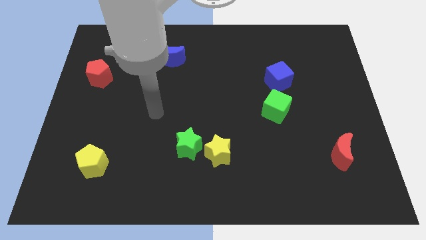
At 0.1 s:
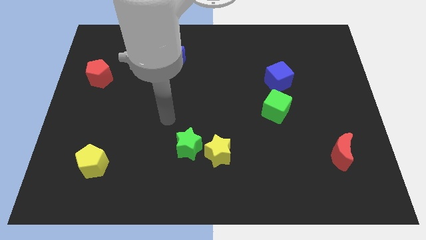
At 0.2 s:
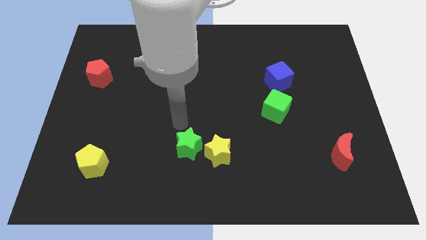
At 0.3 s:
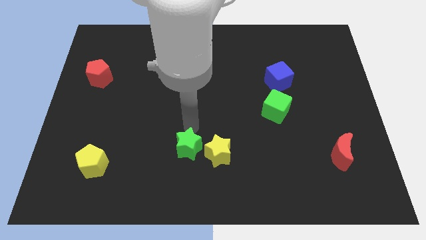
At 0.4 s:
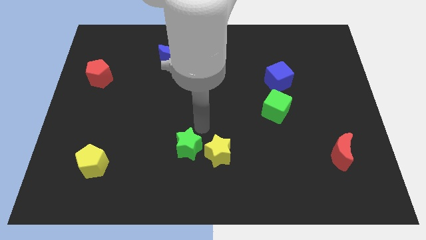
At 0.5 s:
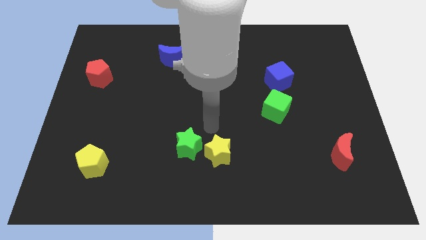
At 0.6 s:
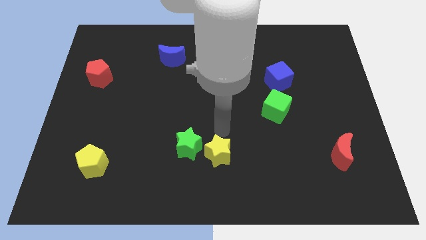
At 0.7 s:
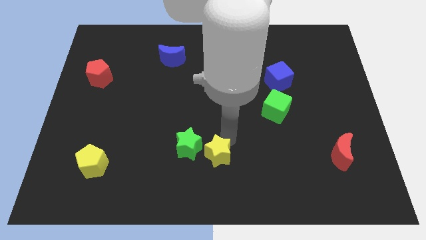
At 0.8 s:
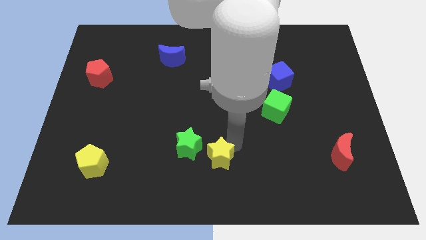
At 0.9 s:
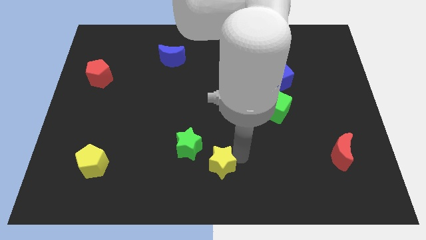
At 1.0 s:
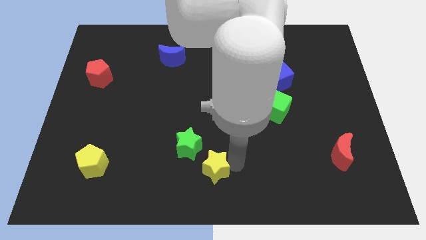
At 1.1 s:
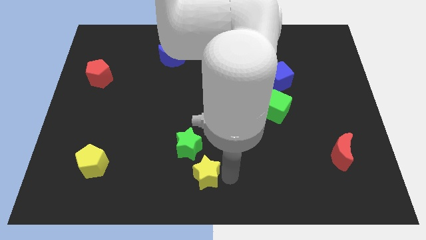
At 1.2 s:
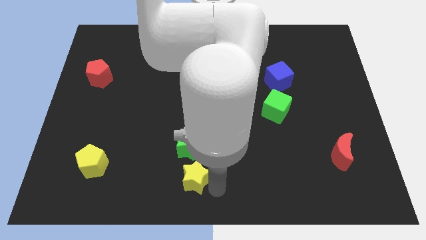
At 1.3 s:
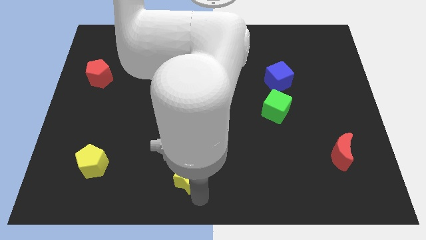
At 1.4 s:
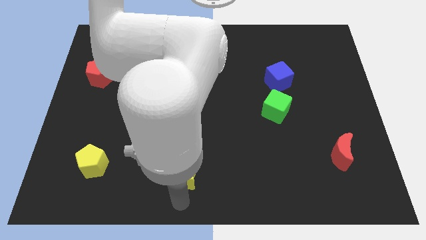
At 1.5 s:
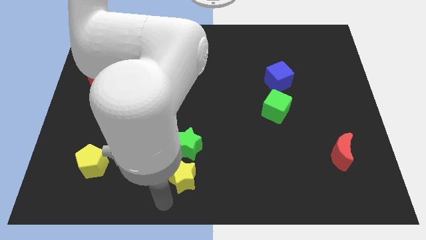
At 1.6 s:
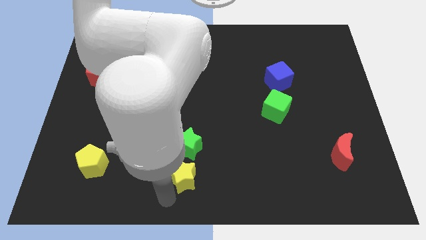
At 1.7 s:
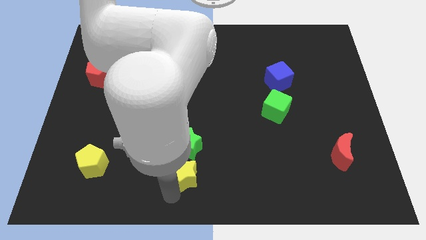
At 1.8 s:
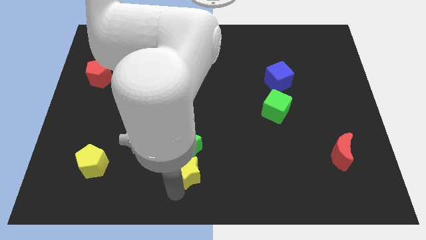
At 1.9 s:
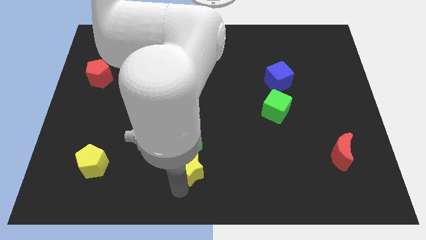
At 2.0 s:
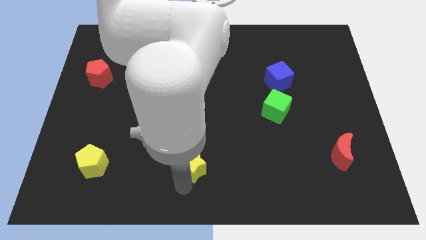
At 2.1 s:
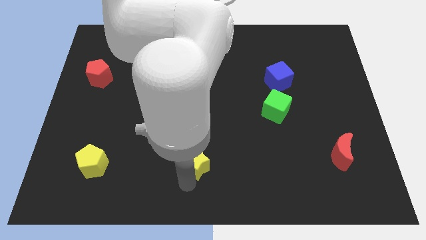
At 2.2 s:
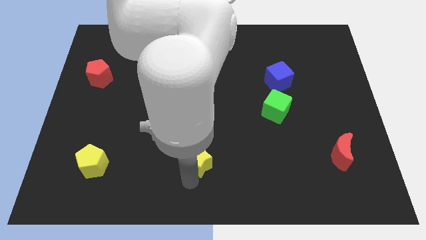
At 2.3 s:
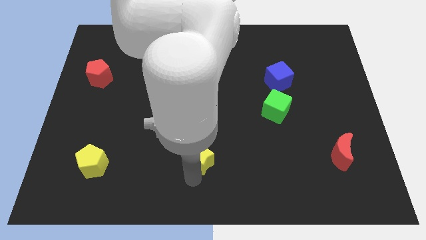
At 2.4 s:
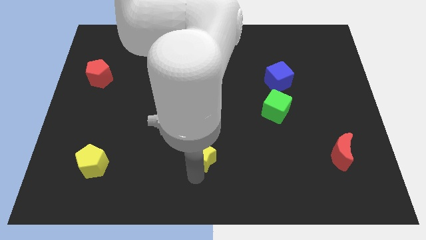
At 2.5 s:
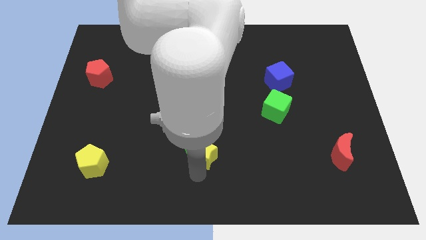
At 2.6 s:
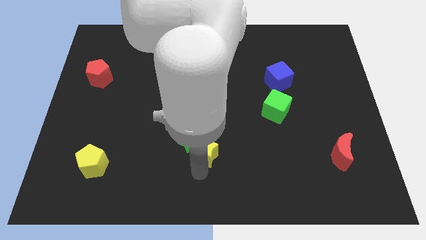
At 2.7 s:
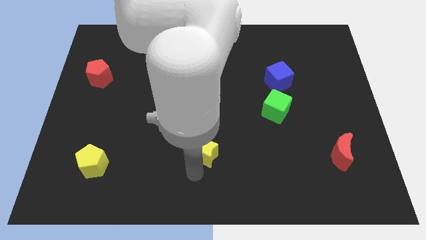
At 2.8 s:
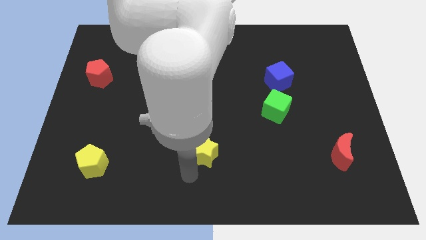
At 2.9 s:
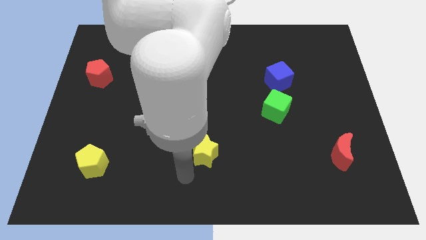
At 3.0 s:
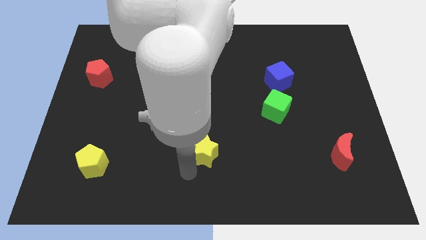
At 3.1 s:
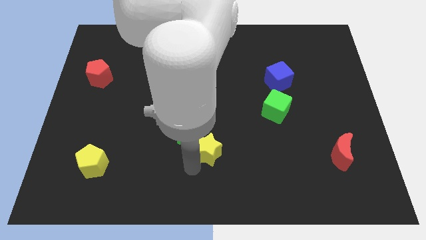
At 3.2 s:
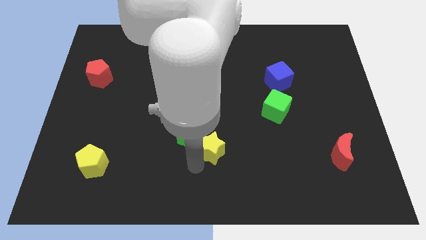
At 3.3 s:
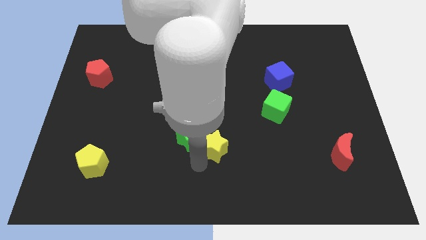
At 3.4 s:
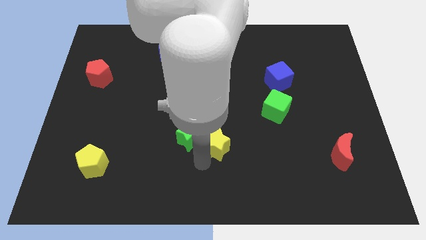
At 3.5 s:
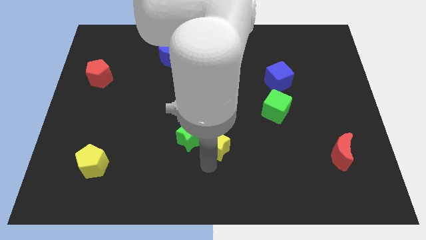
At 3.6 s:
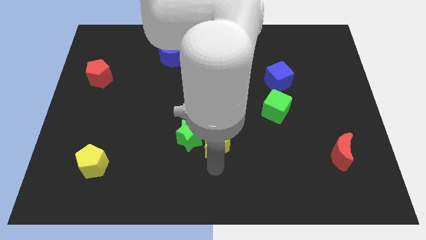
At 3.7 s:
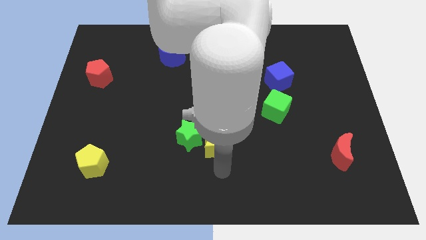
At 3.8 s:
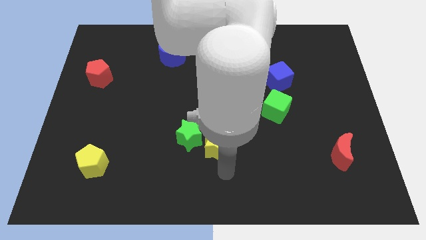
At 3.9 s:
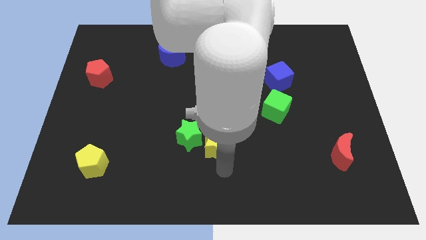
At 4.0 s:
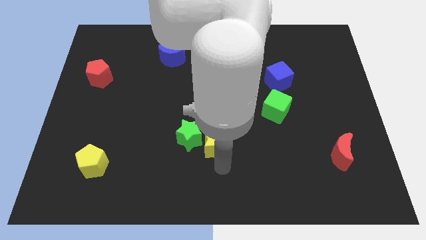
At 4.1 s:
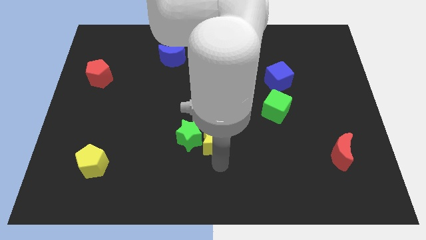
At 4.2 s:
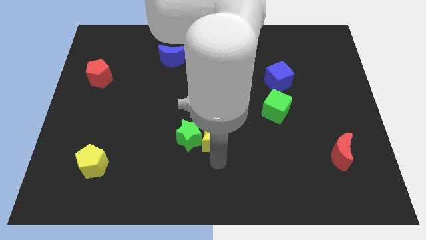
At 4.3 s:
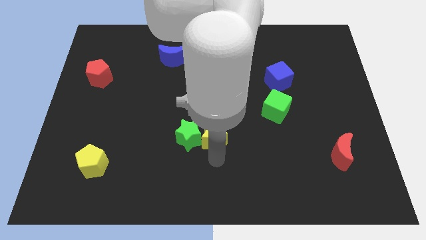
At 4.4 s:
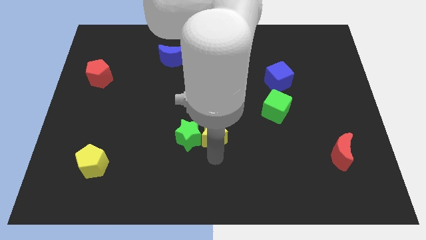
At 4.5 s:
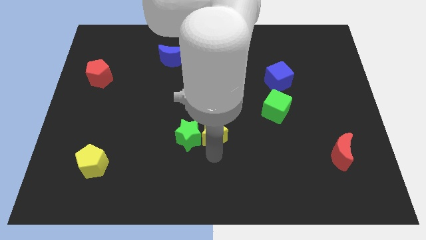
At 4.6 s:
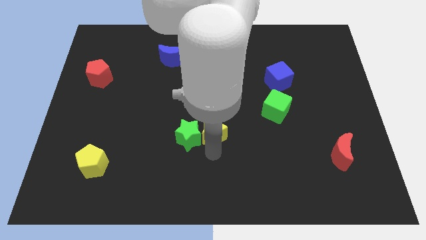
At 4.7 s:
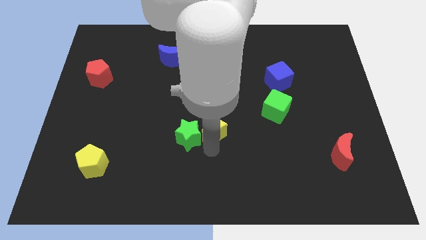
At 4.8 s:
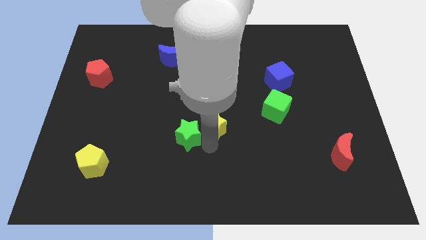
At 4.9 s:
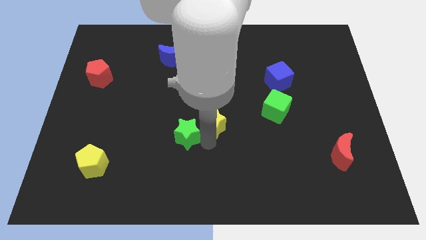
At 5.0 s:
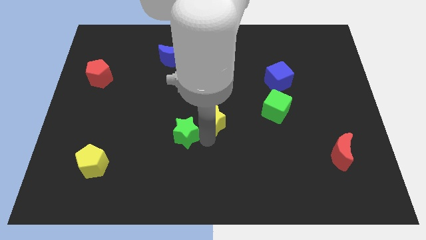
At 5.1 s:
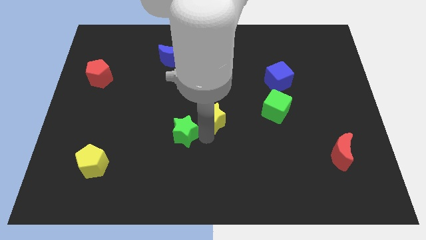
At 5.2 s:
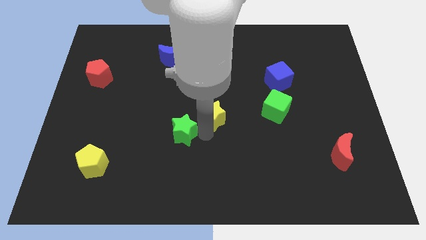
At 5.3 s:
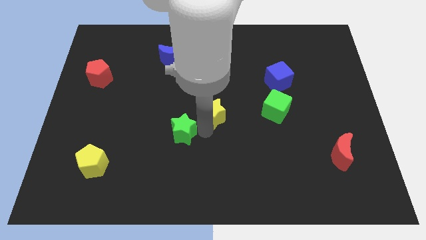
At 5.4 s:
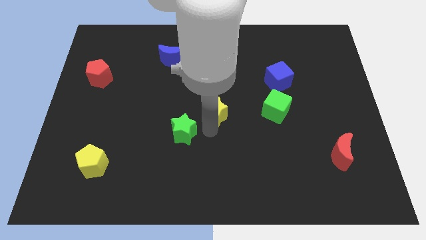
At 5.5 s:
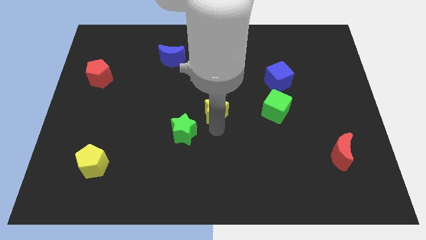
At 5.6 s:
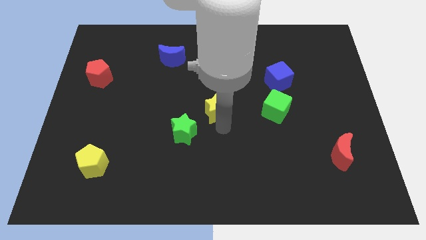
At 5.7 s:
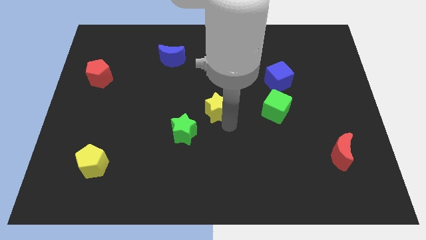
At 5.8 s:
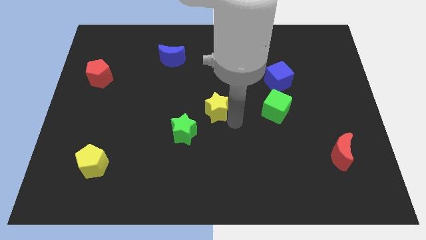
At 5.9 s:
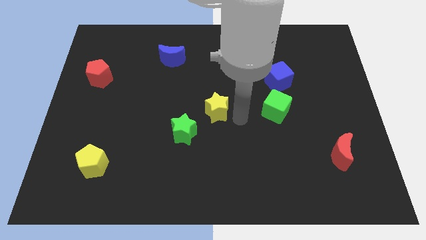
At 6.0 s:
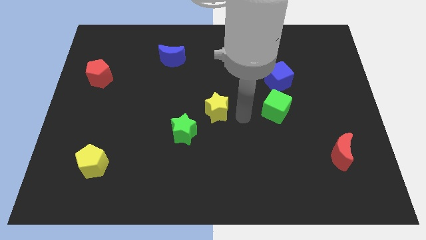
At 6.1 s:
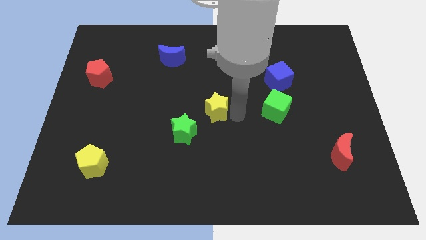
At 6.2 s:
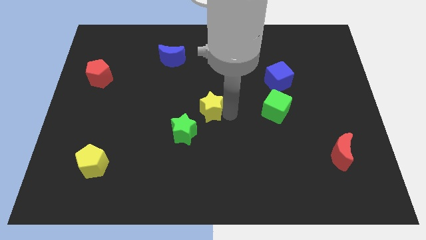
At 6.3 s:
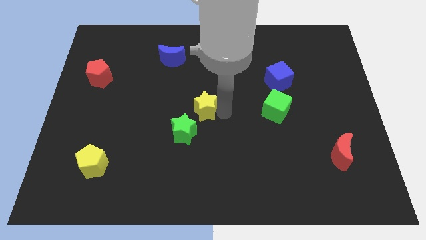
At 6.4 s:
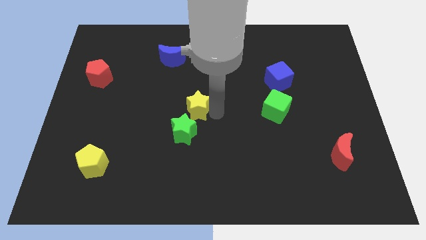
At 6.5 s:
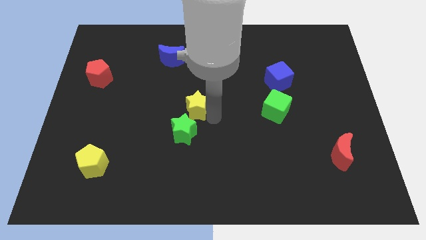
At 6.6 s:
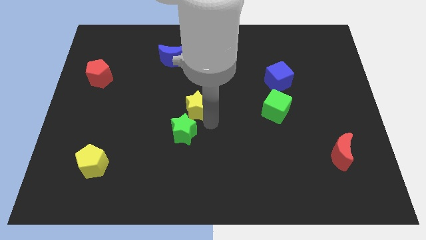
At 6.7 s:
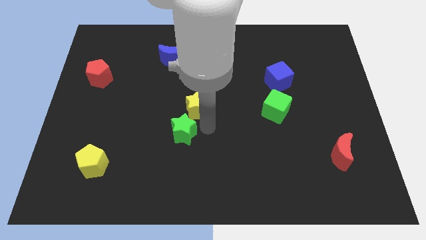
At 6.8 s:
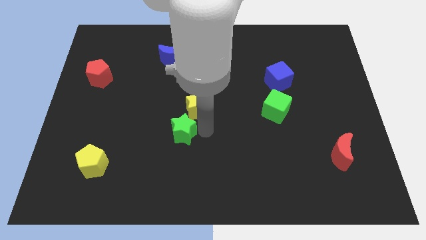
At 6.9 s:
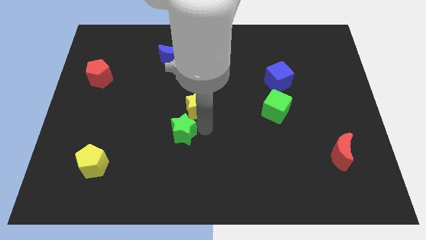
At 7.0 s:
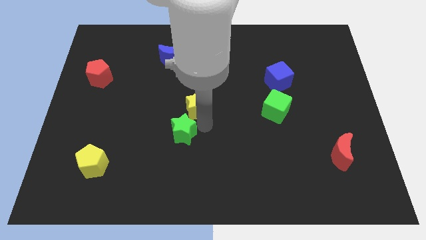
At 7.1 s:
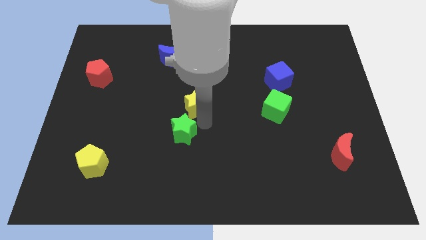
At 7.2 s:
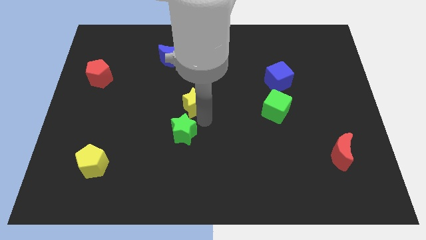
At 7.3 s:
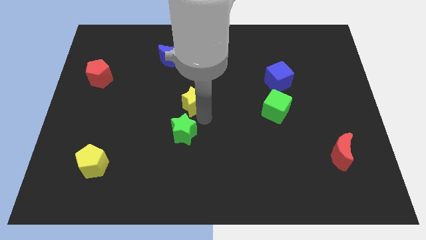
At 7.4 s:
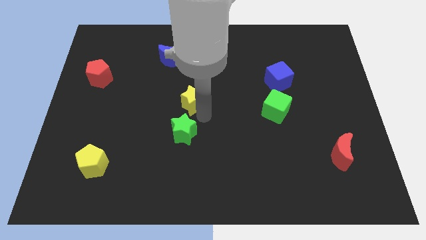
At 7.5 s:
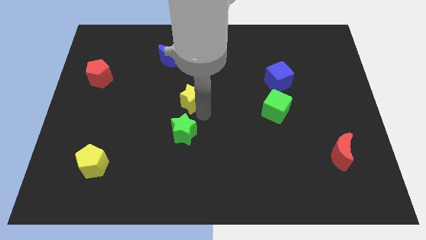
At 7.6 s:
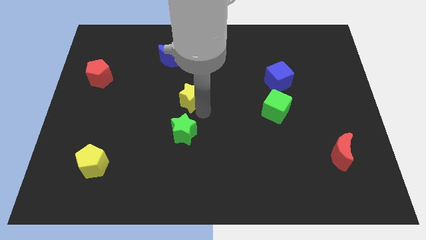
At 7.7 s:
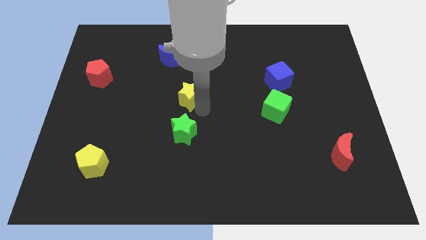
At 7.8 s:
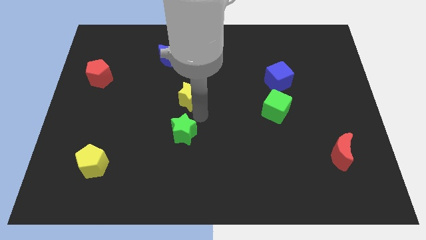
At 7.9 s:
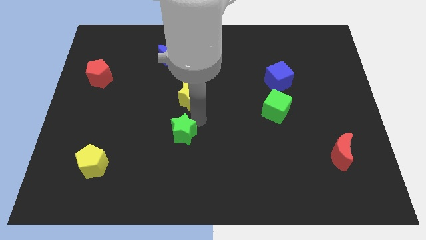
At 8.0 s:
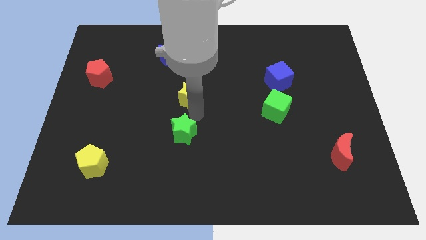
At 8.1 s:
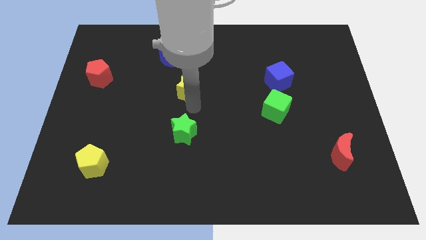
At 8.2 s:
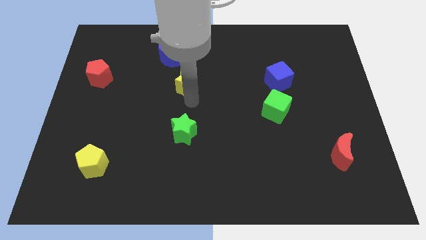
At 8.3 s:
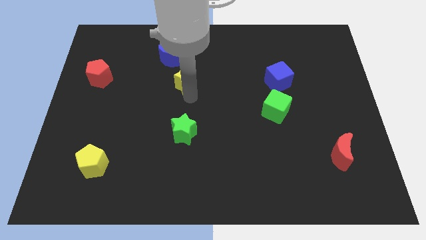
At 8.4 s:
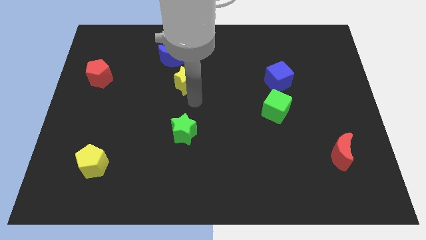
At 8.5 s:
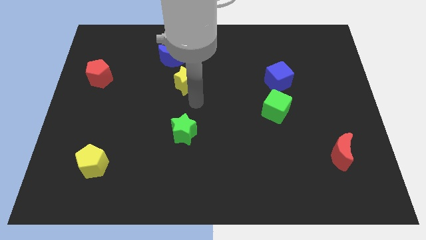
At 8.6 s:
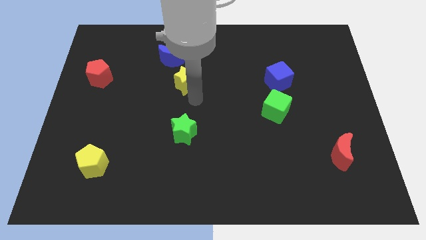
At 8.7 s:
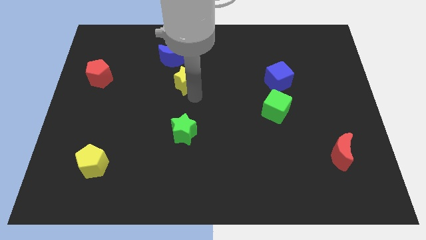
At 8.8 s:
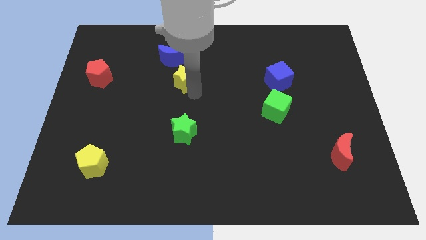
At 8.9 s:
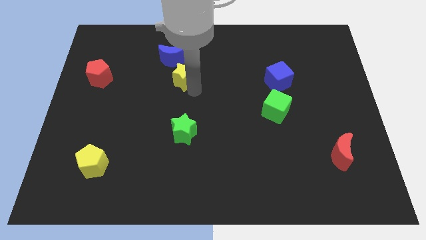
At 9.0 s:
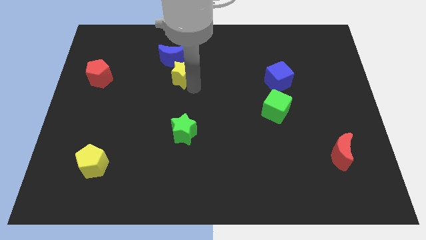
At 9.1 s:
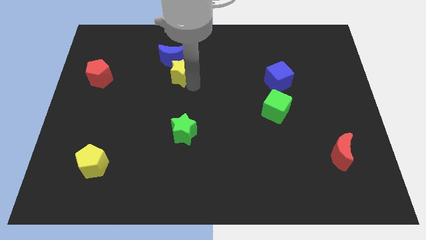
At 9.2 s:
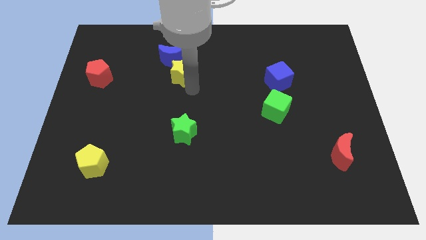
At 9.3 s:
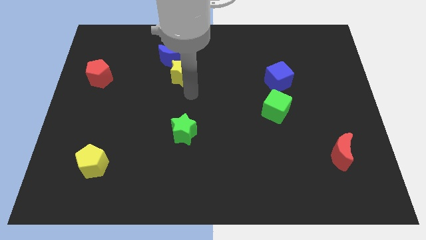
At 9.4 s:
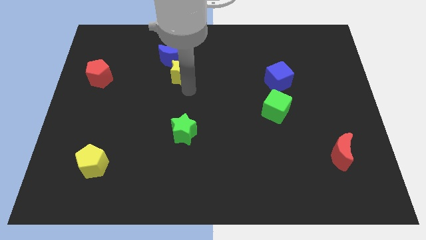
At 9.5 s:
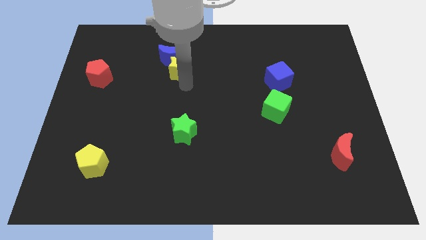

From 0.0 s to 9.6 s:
put the yellow star to the blue moon
